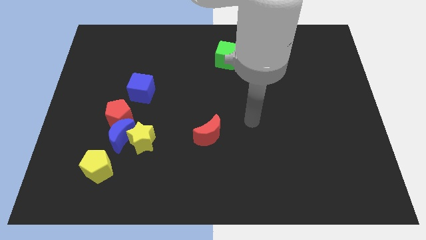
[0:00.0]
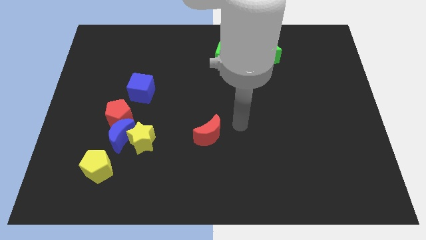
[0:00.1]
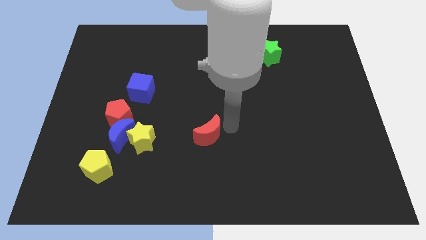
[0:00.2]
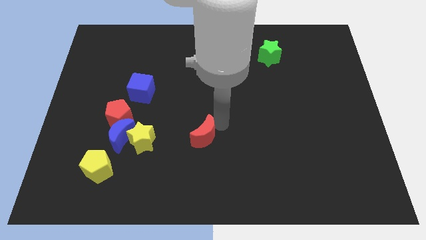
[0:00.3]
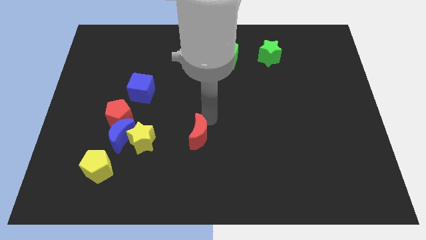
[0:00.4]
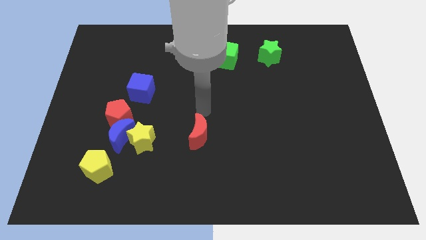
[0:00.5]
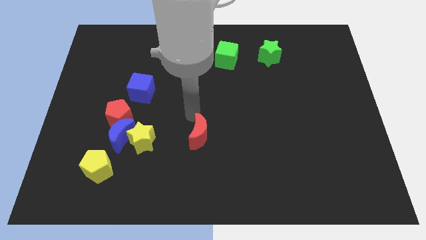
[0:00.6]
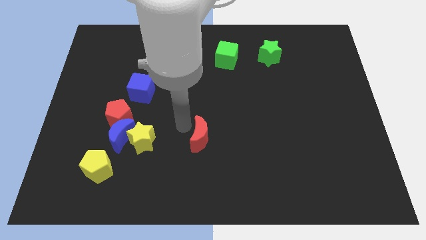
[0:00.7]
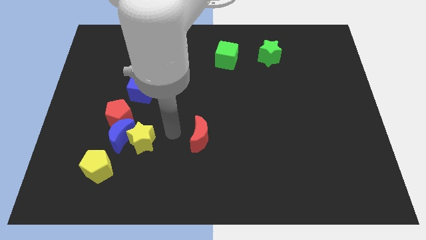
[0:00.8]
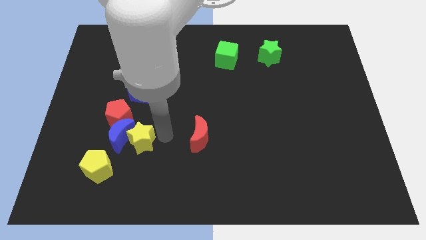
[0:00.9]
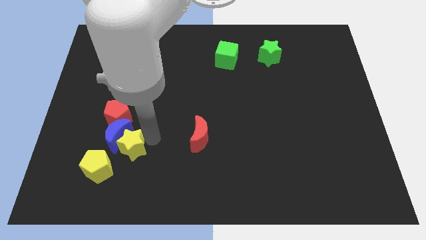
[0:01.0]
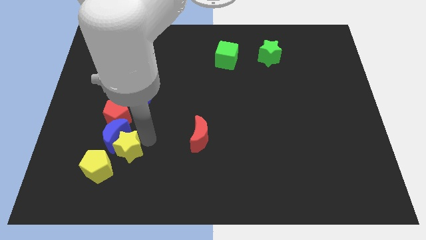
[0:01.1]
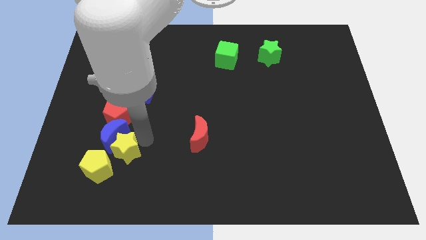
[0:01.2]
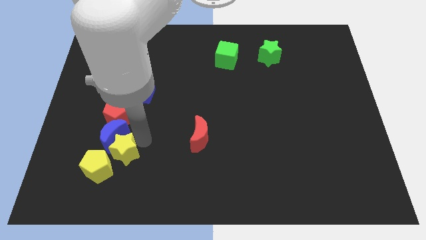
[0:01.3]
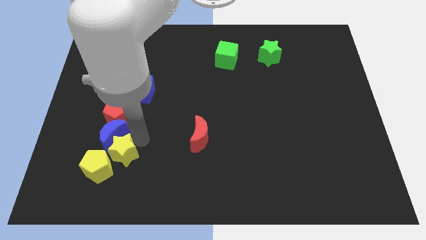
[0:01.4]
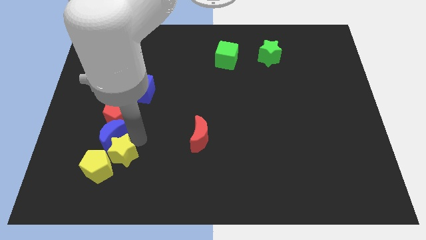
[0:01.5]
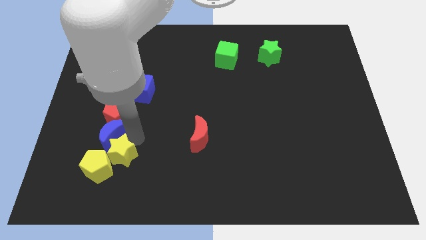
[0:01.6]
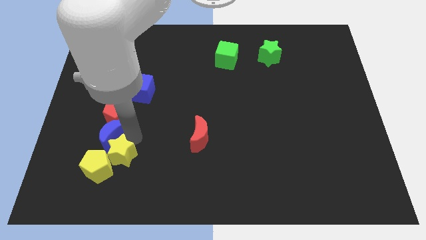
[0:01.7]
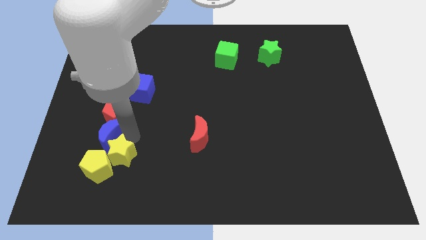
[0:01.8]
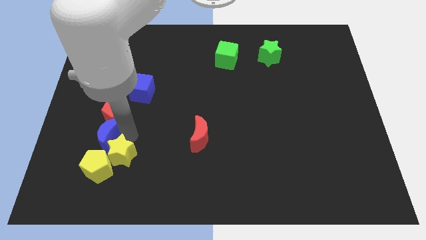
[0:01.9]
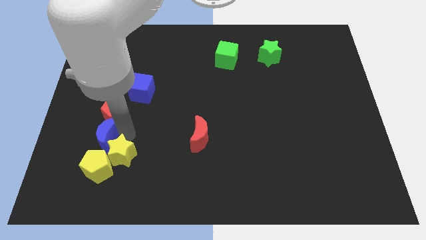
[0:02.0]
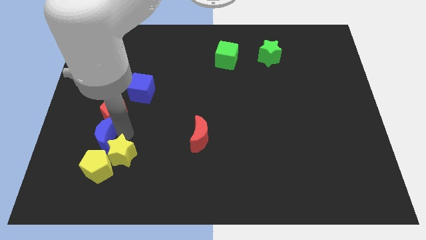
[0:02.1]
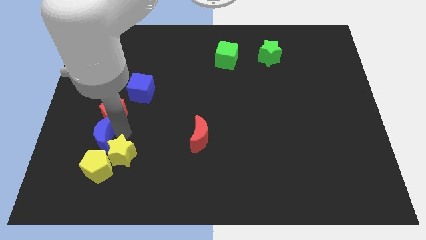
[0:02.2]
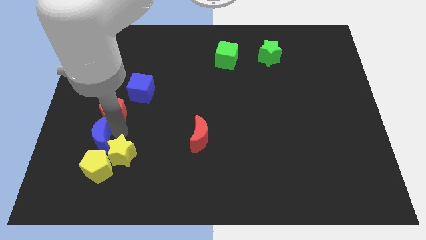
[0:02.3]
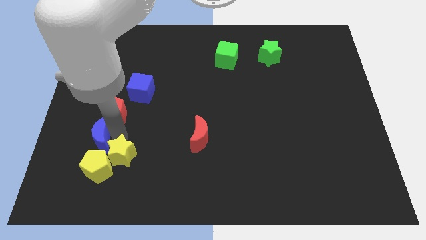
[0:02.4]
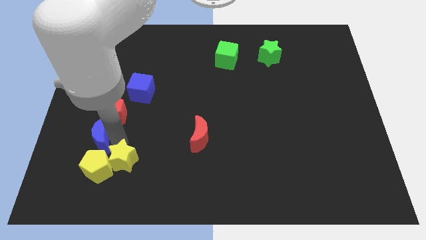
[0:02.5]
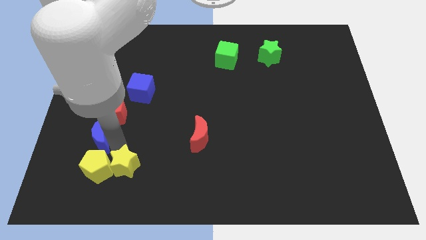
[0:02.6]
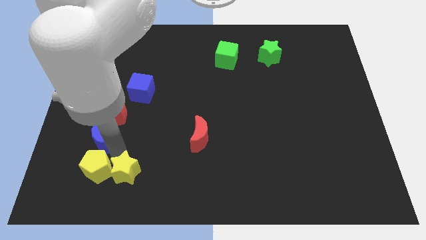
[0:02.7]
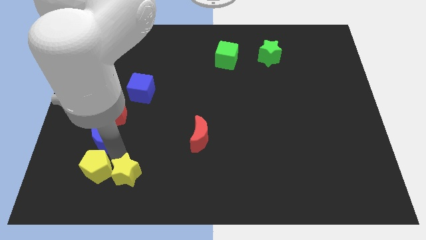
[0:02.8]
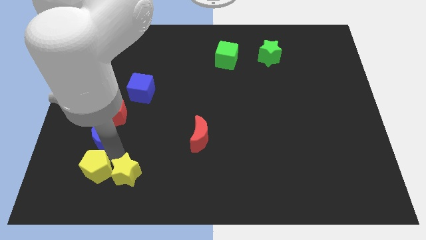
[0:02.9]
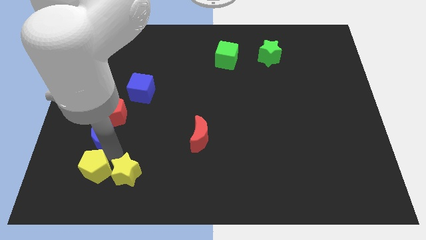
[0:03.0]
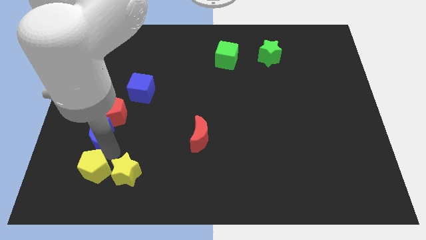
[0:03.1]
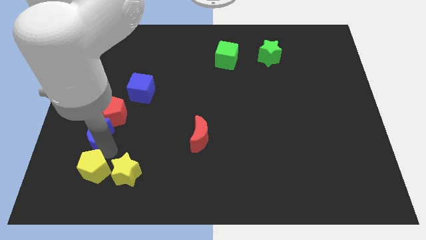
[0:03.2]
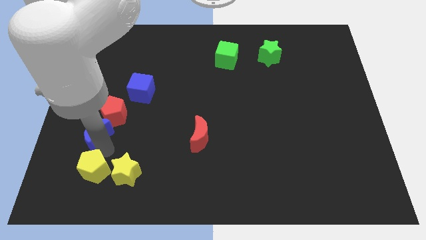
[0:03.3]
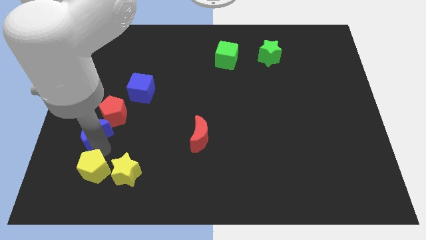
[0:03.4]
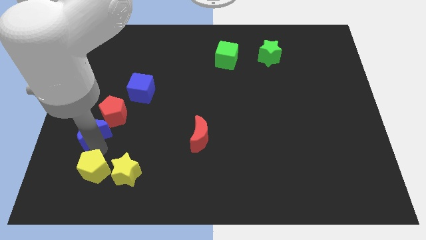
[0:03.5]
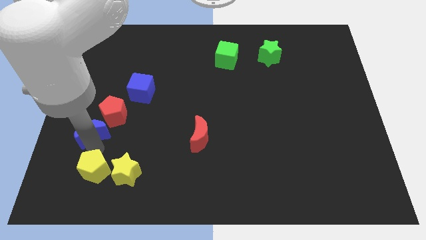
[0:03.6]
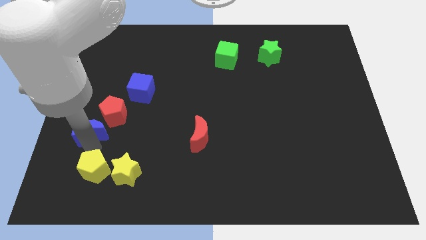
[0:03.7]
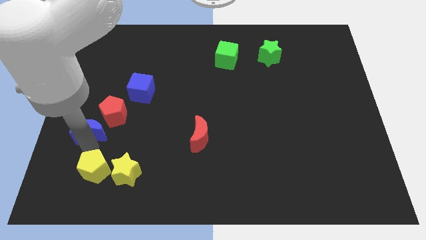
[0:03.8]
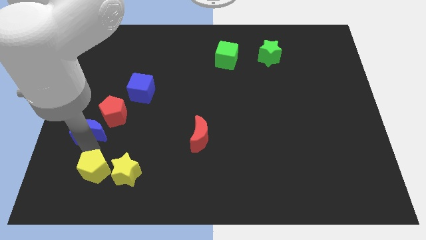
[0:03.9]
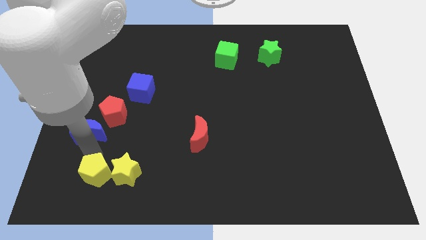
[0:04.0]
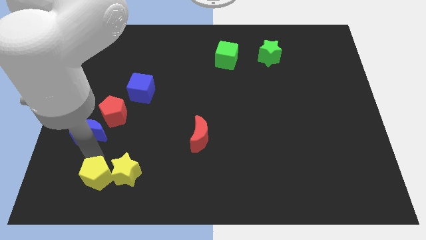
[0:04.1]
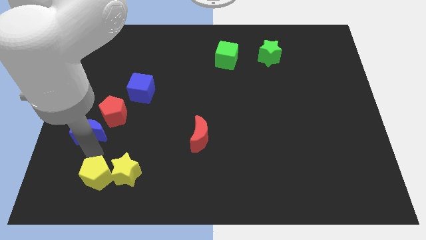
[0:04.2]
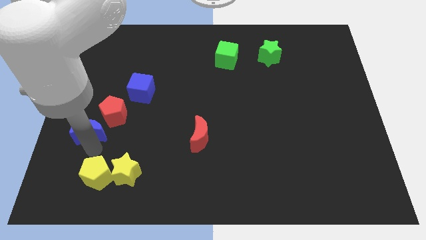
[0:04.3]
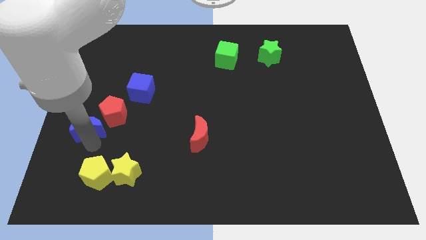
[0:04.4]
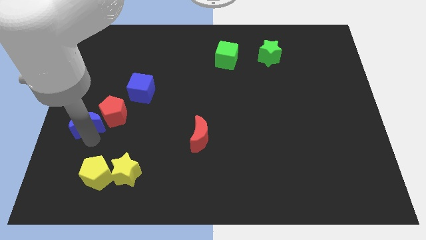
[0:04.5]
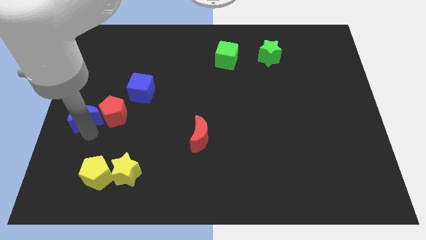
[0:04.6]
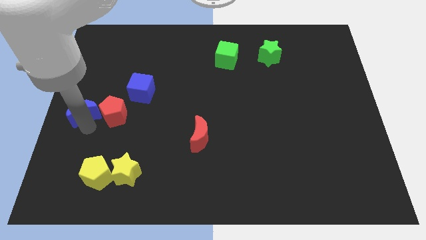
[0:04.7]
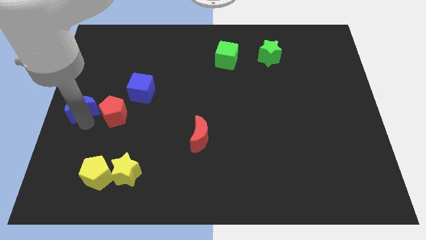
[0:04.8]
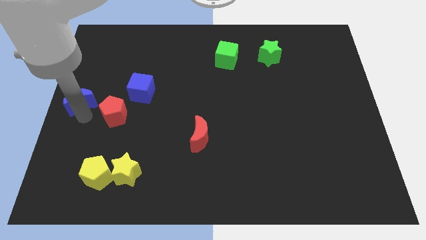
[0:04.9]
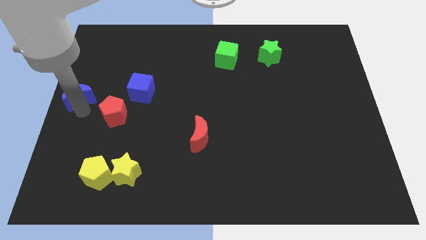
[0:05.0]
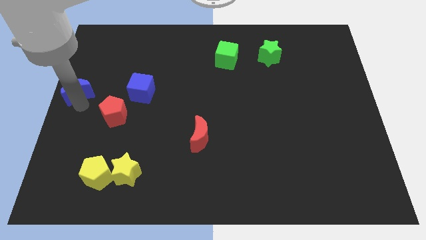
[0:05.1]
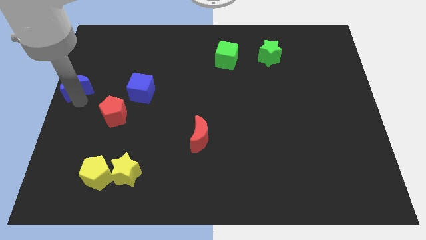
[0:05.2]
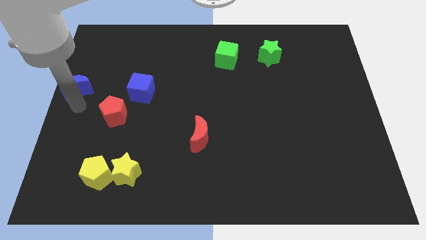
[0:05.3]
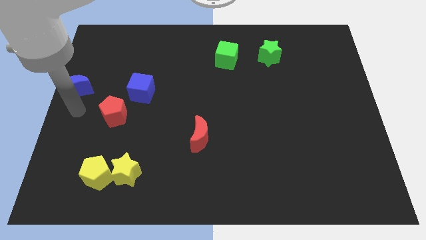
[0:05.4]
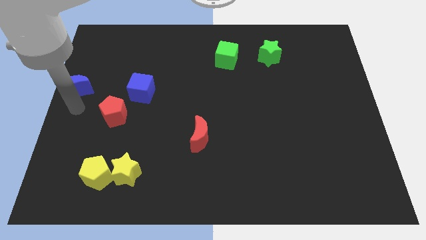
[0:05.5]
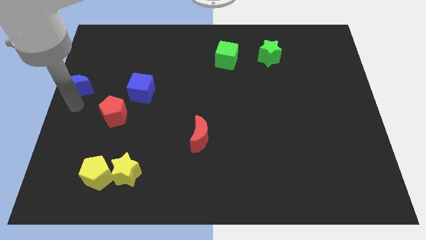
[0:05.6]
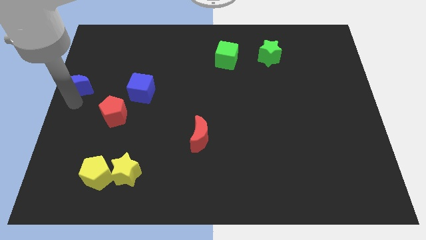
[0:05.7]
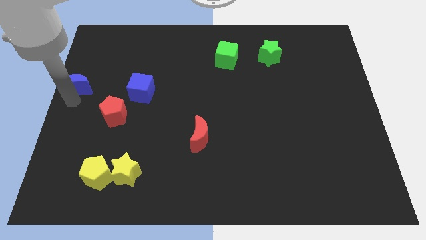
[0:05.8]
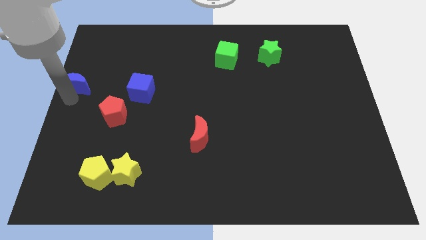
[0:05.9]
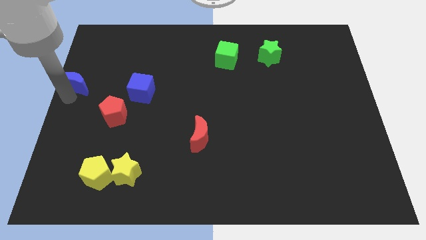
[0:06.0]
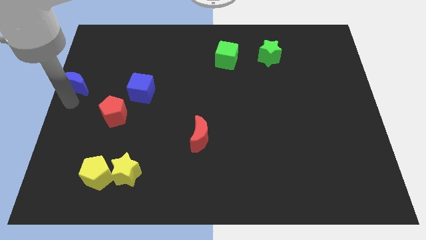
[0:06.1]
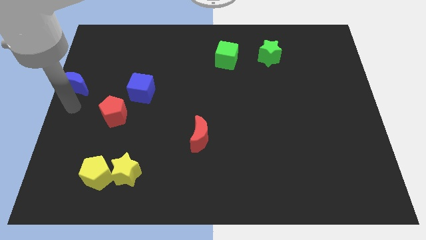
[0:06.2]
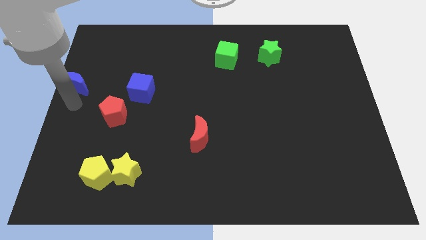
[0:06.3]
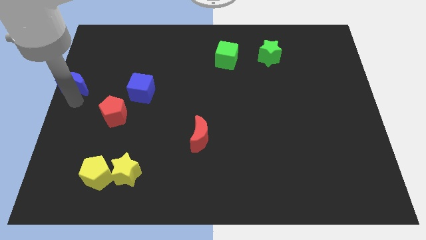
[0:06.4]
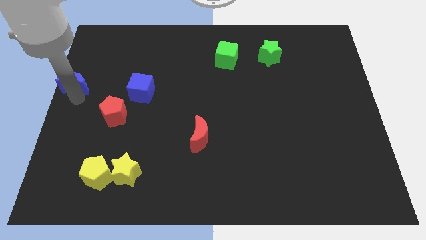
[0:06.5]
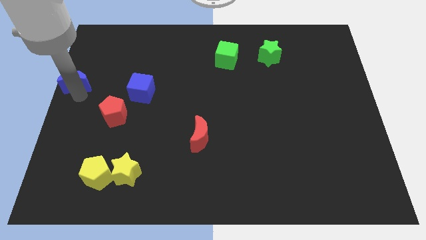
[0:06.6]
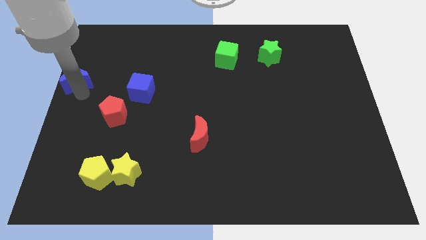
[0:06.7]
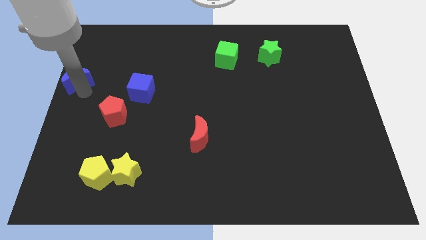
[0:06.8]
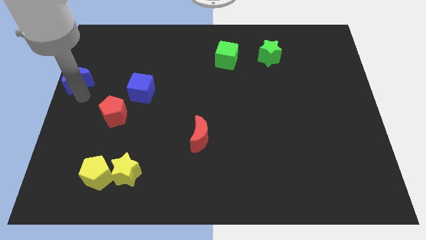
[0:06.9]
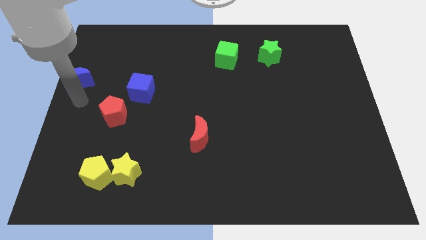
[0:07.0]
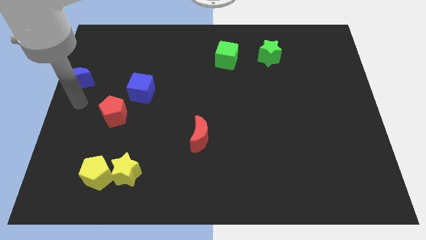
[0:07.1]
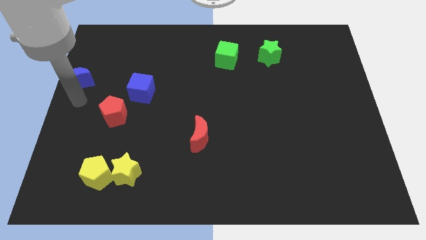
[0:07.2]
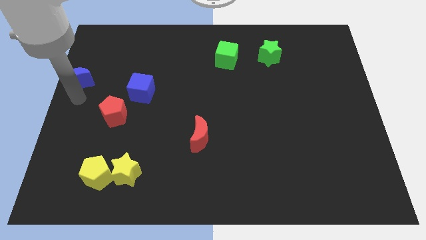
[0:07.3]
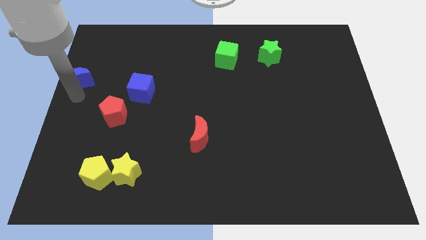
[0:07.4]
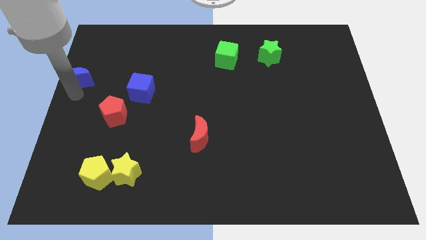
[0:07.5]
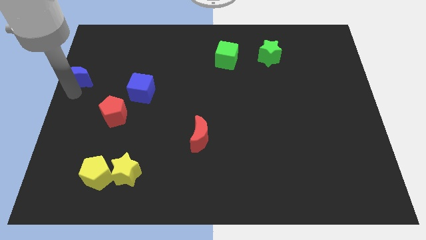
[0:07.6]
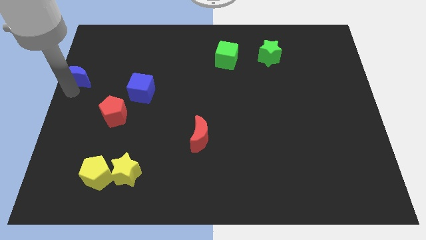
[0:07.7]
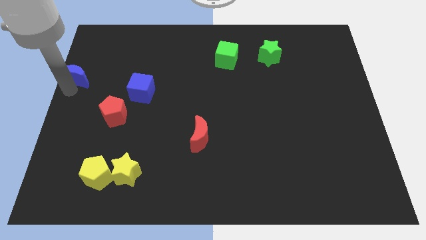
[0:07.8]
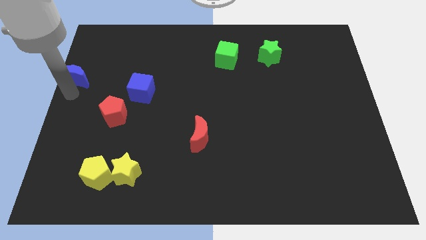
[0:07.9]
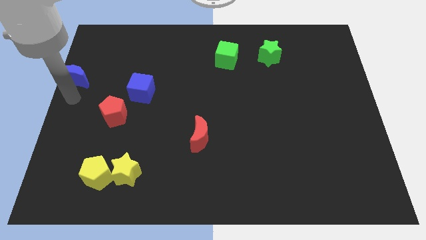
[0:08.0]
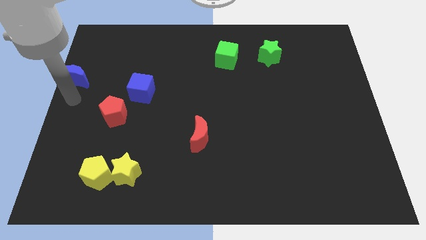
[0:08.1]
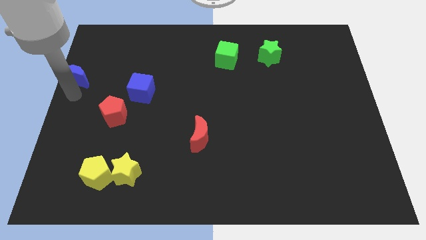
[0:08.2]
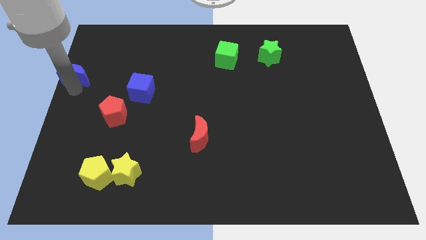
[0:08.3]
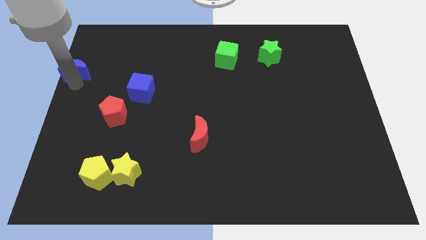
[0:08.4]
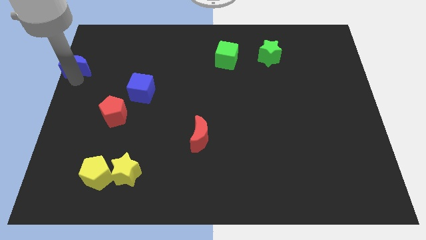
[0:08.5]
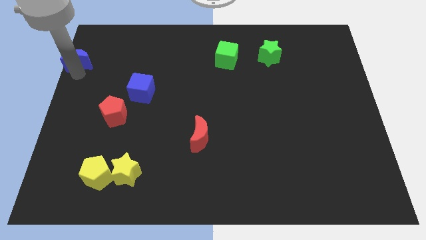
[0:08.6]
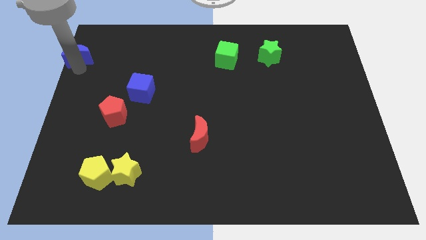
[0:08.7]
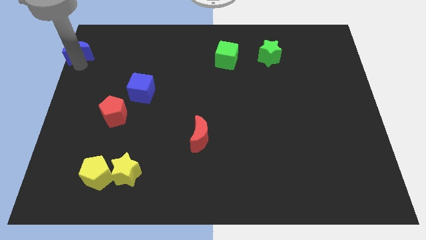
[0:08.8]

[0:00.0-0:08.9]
put the blue moon to the top left corner
